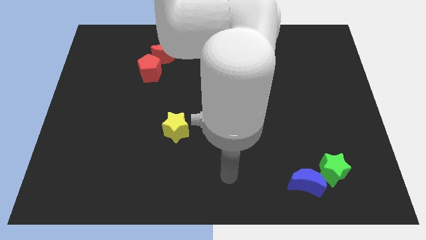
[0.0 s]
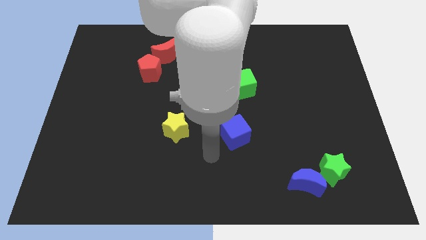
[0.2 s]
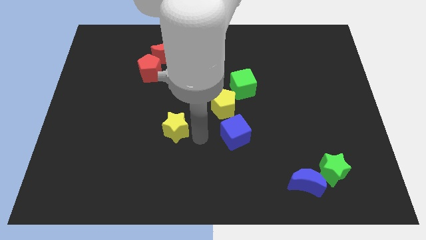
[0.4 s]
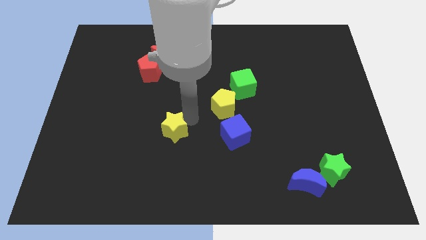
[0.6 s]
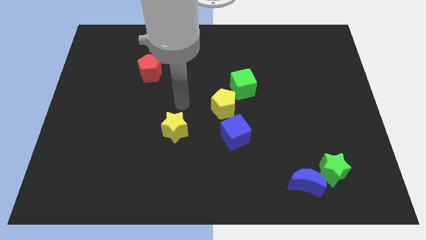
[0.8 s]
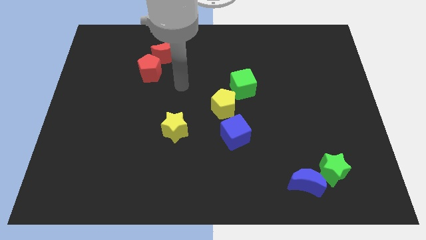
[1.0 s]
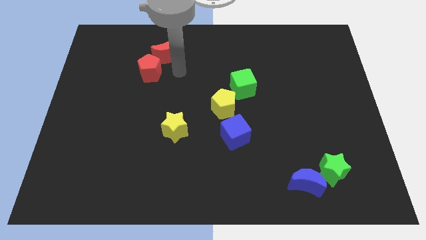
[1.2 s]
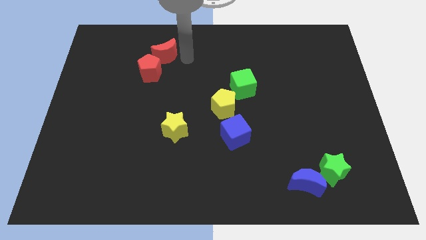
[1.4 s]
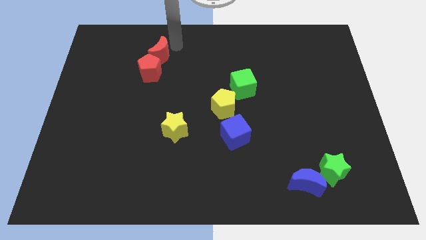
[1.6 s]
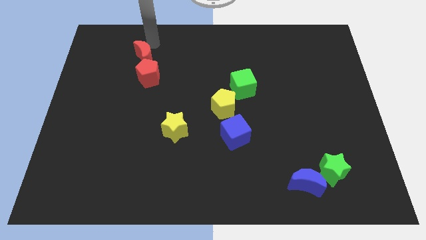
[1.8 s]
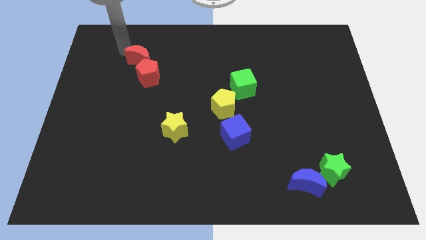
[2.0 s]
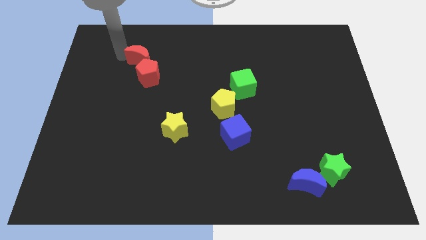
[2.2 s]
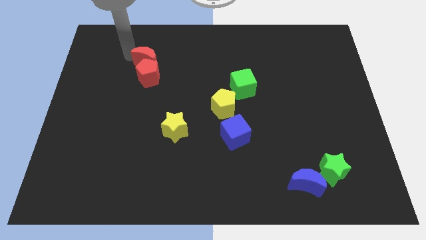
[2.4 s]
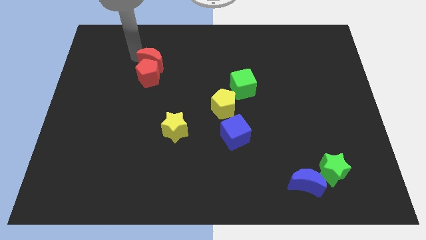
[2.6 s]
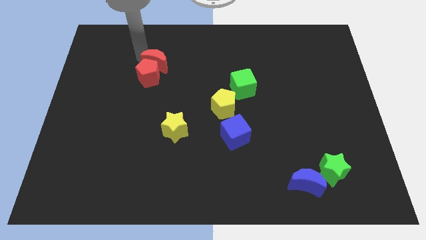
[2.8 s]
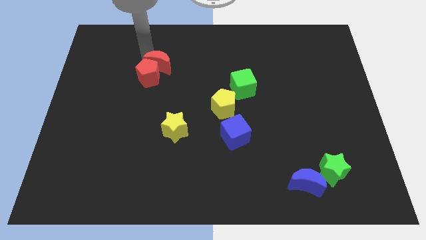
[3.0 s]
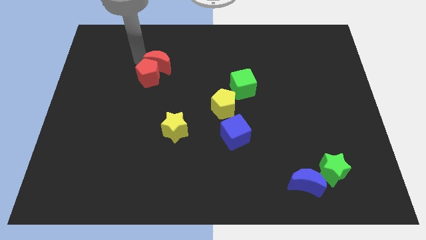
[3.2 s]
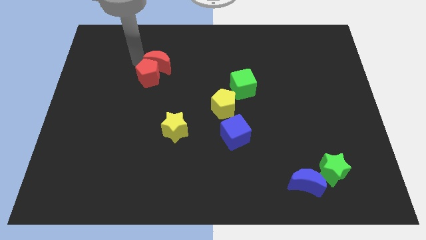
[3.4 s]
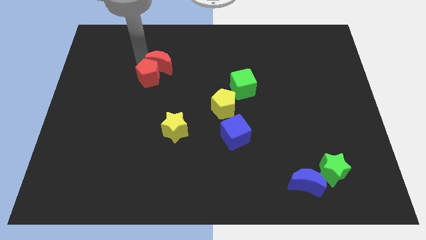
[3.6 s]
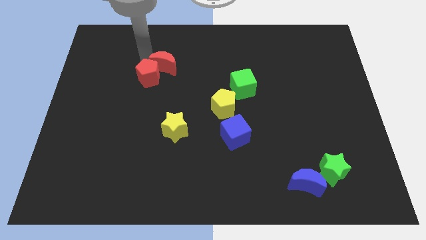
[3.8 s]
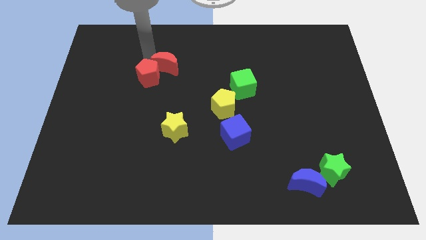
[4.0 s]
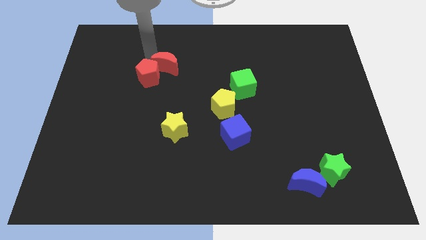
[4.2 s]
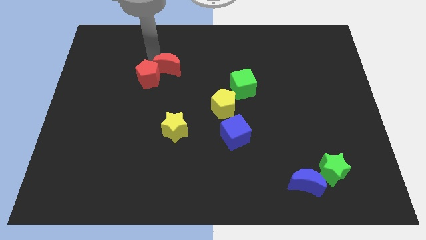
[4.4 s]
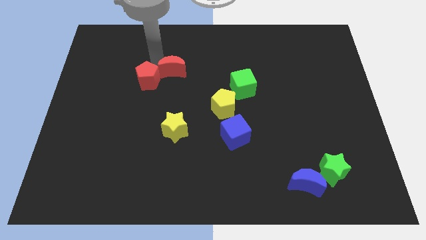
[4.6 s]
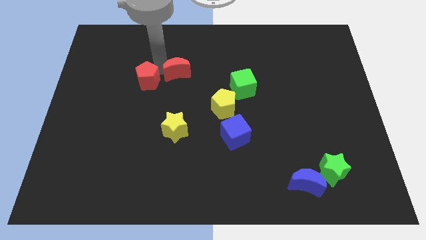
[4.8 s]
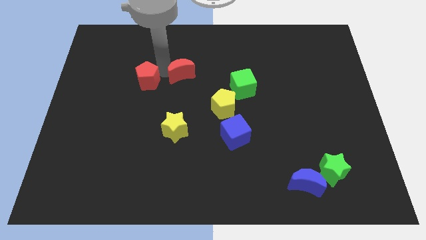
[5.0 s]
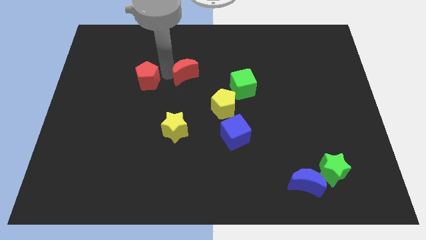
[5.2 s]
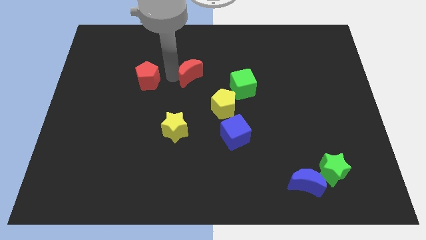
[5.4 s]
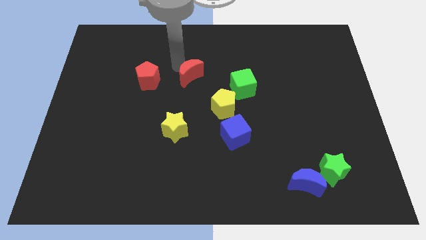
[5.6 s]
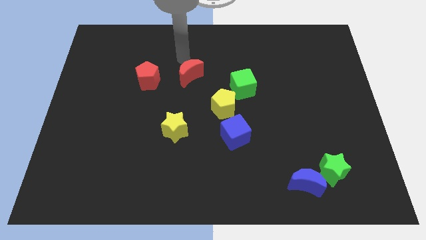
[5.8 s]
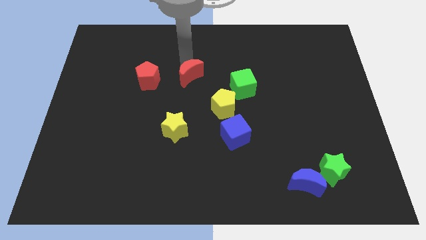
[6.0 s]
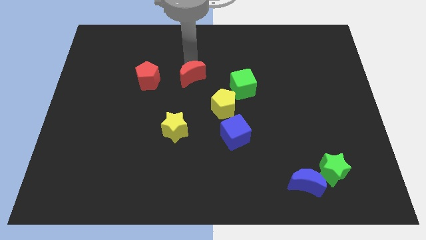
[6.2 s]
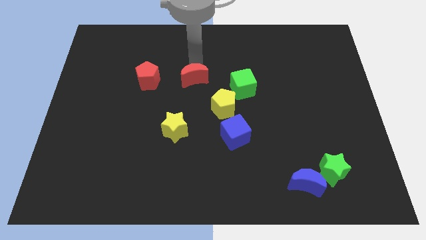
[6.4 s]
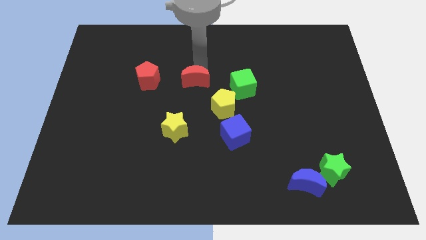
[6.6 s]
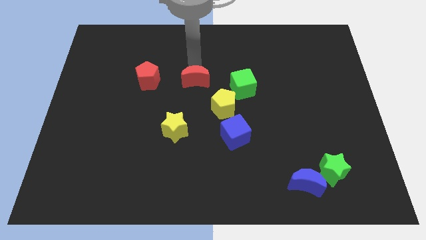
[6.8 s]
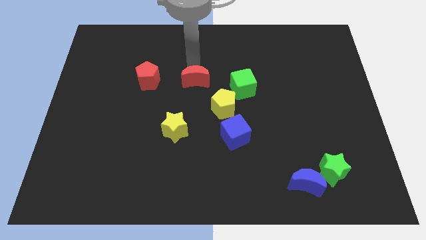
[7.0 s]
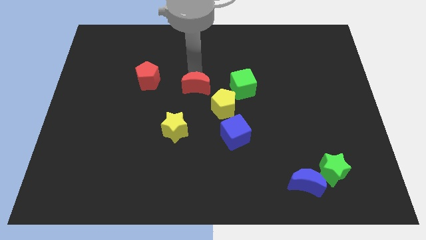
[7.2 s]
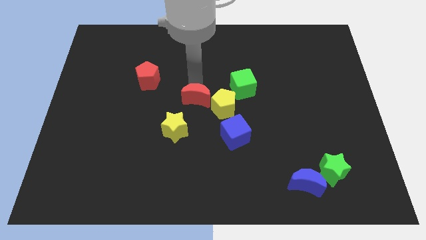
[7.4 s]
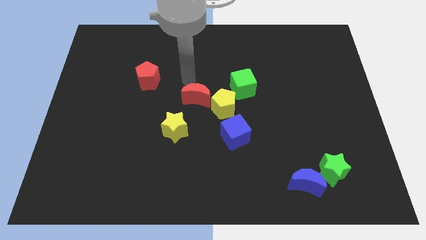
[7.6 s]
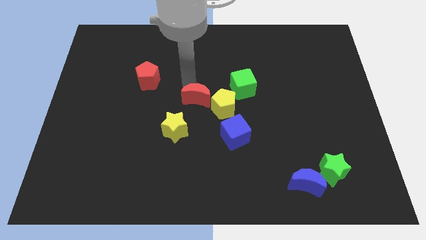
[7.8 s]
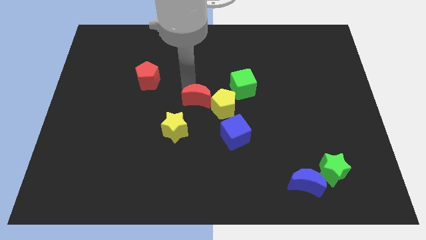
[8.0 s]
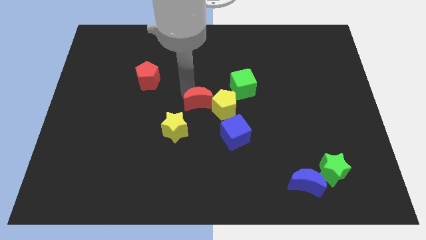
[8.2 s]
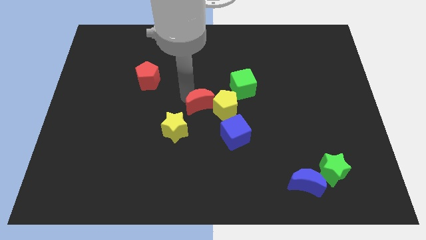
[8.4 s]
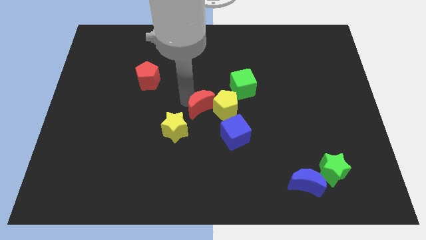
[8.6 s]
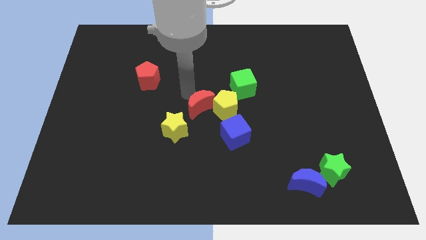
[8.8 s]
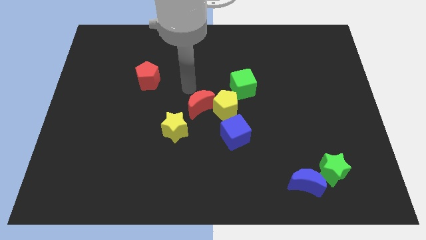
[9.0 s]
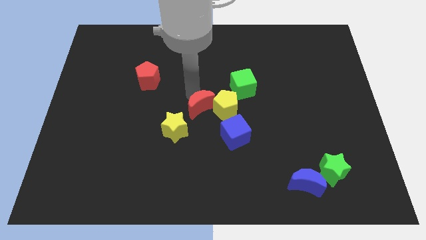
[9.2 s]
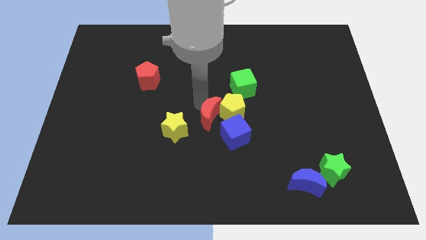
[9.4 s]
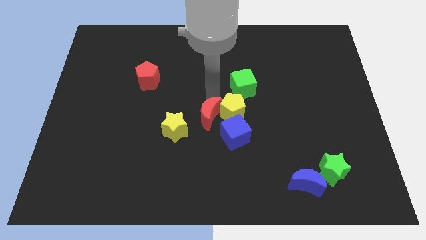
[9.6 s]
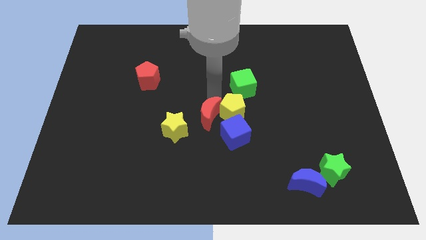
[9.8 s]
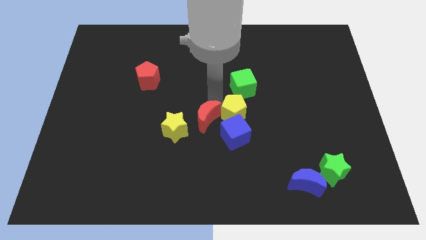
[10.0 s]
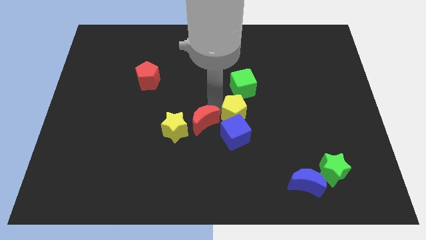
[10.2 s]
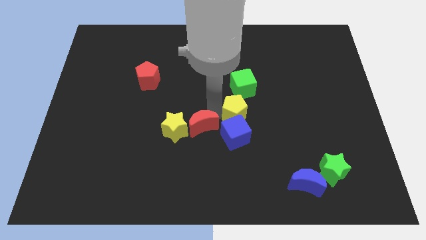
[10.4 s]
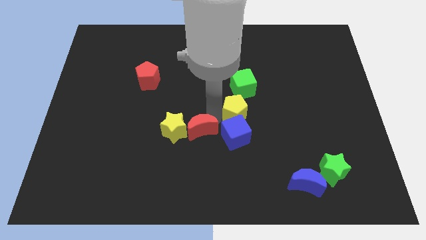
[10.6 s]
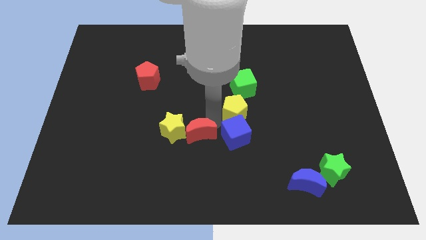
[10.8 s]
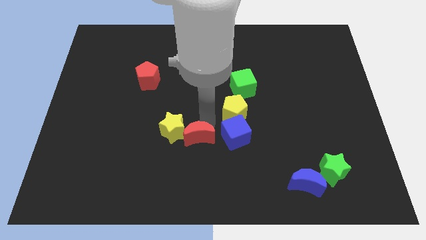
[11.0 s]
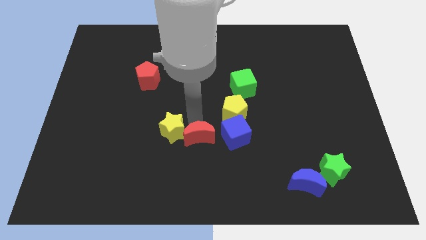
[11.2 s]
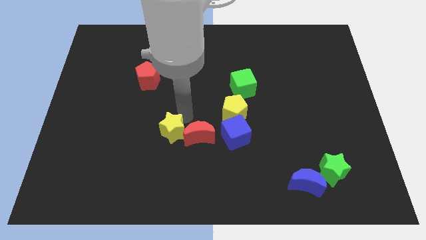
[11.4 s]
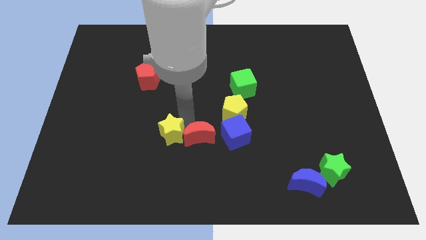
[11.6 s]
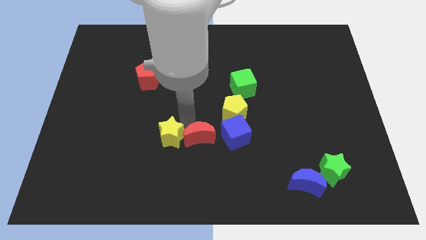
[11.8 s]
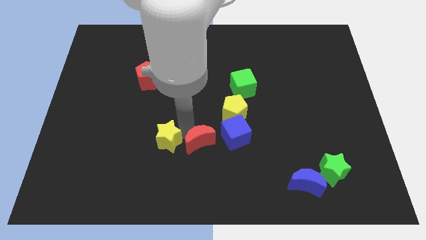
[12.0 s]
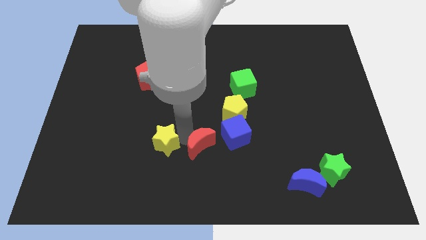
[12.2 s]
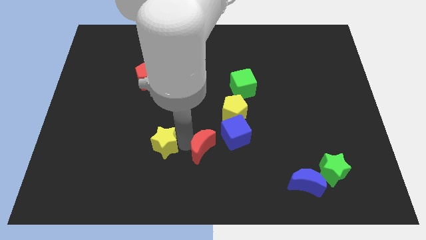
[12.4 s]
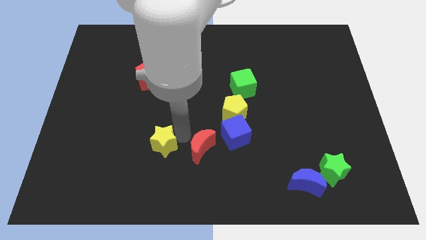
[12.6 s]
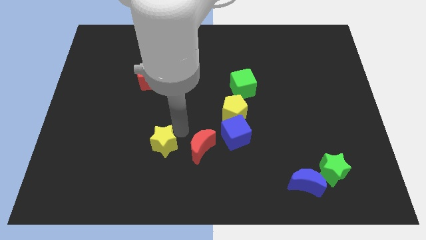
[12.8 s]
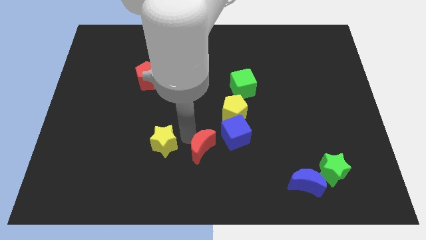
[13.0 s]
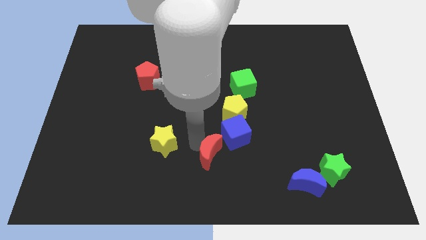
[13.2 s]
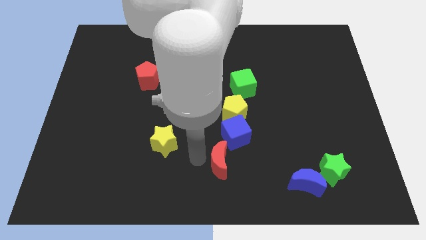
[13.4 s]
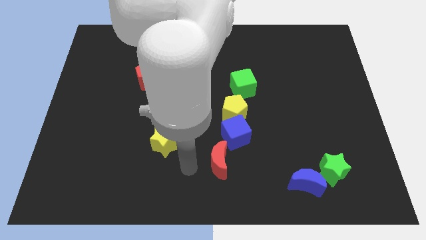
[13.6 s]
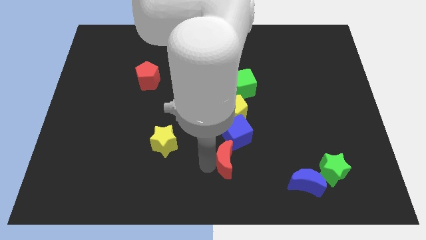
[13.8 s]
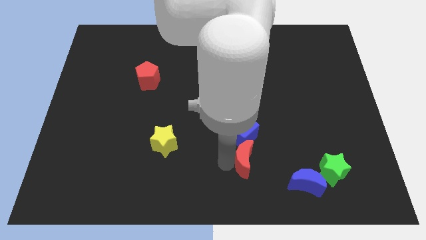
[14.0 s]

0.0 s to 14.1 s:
put the red moon diagonally down and to the right of the blue cube

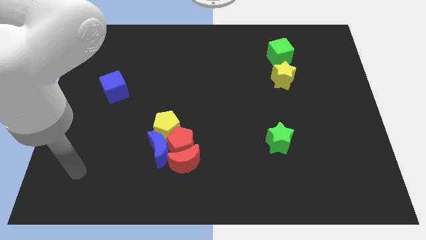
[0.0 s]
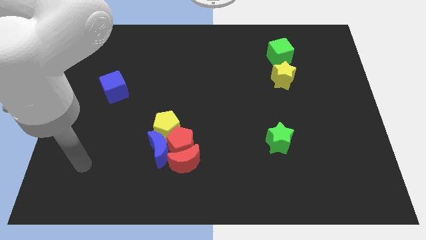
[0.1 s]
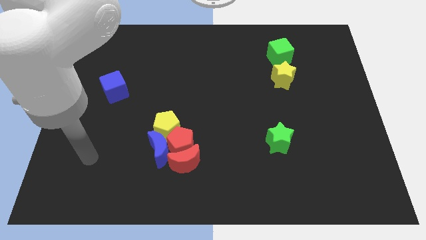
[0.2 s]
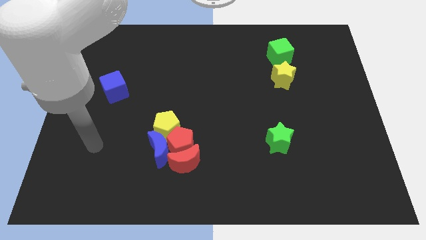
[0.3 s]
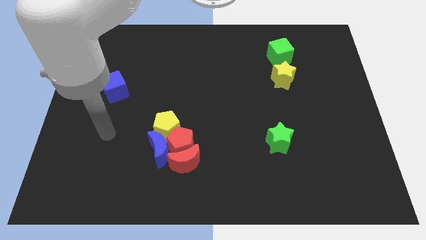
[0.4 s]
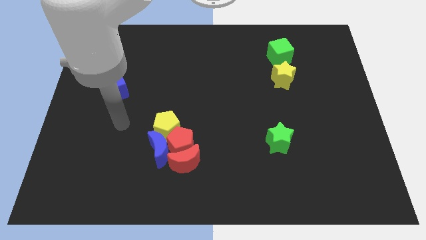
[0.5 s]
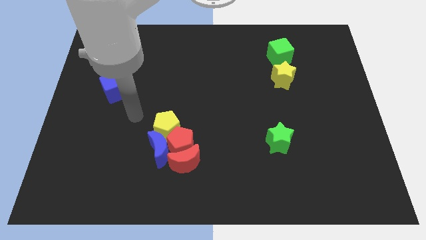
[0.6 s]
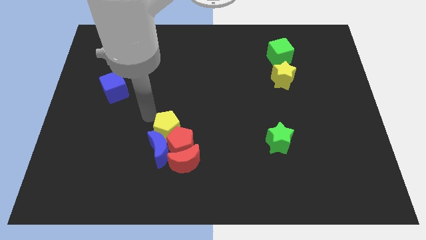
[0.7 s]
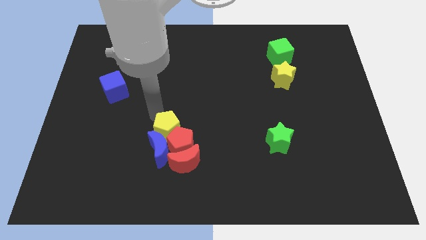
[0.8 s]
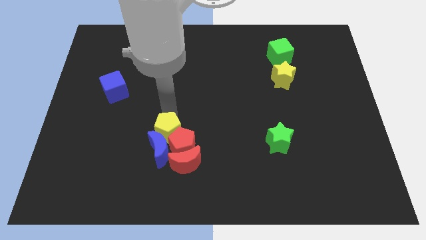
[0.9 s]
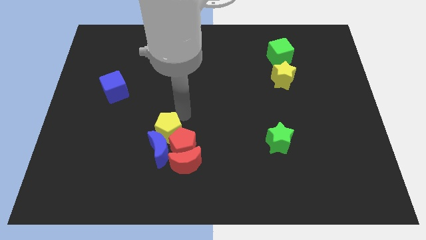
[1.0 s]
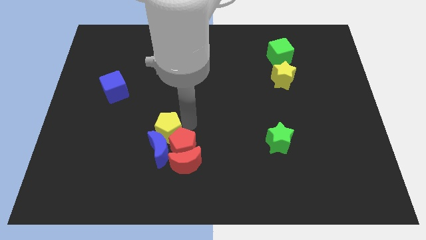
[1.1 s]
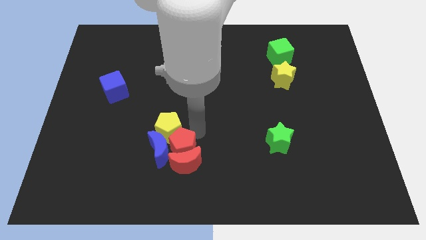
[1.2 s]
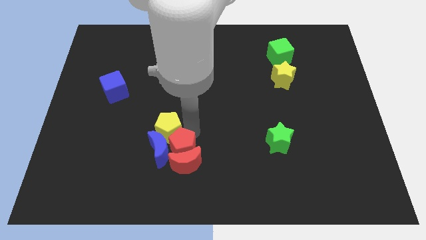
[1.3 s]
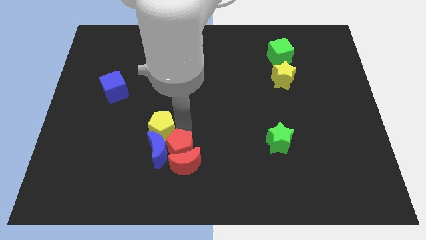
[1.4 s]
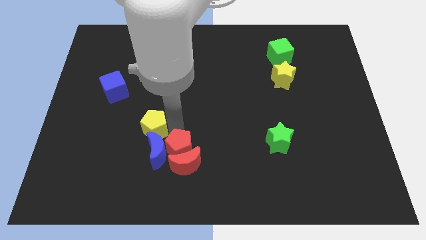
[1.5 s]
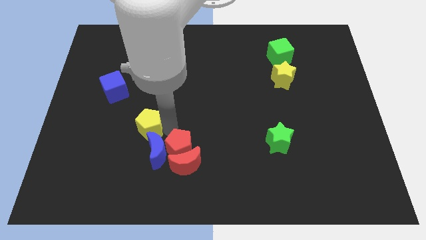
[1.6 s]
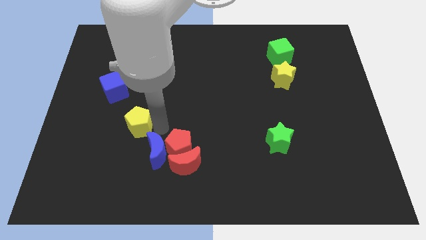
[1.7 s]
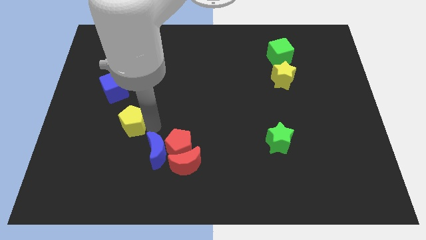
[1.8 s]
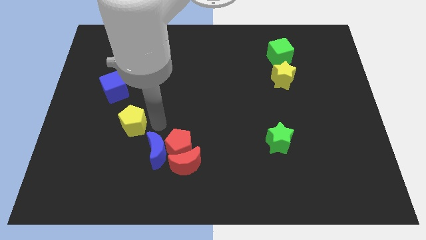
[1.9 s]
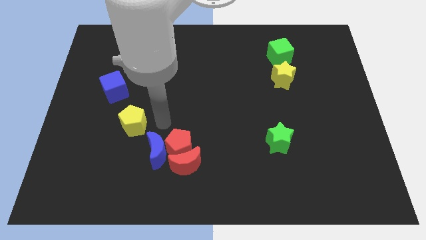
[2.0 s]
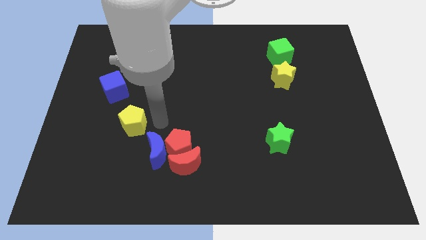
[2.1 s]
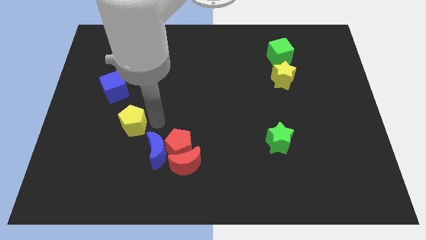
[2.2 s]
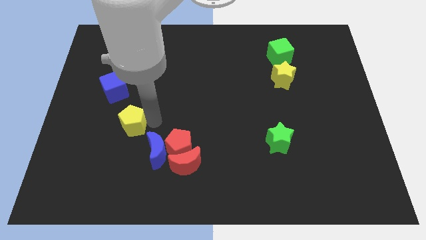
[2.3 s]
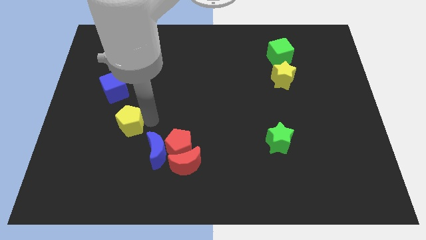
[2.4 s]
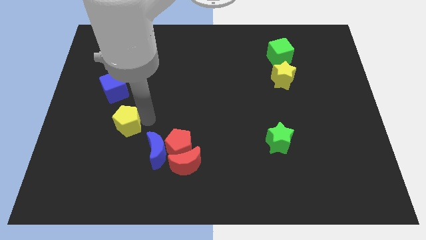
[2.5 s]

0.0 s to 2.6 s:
push the yellow pentagon below the blue cube
